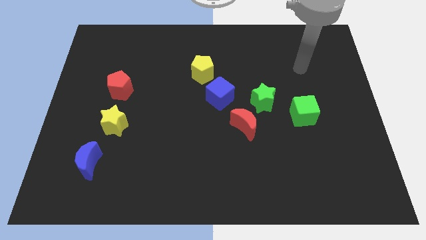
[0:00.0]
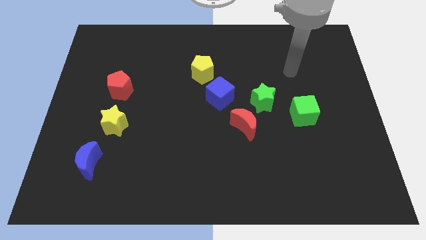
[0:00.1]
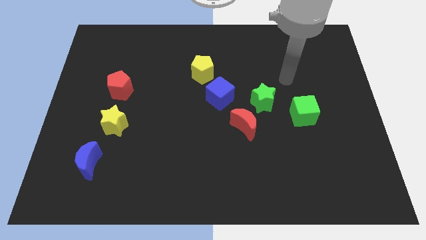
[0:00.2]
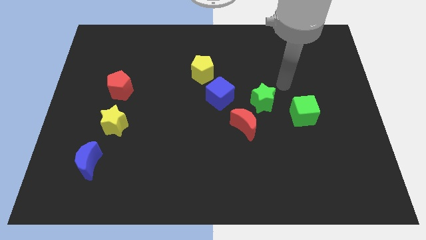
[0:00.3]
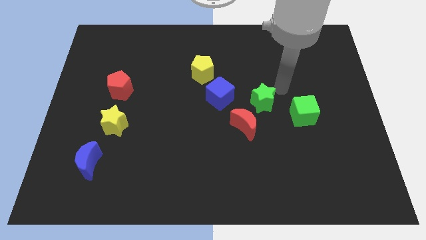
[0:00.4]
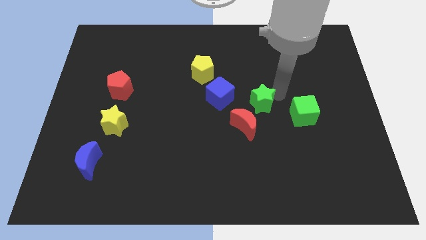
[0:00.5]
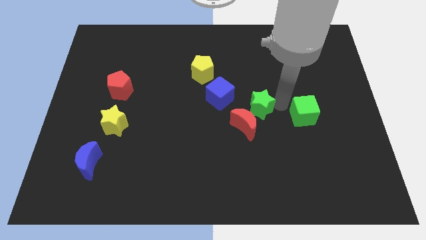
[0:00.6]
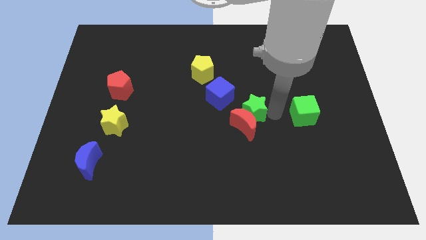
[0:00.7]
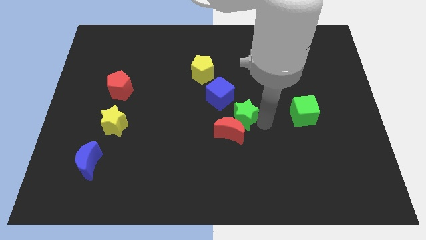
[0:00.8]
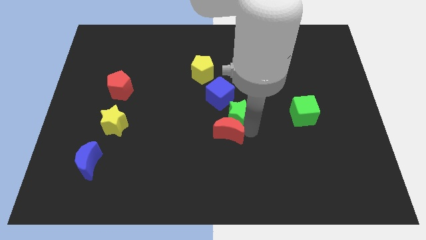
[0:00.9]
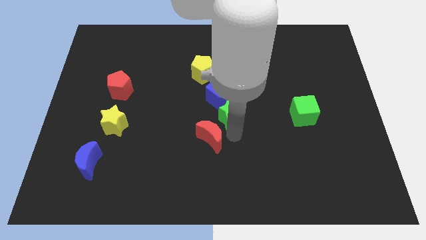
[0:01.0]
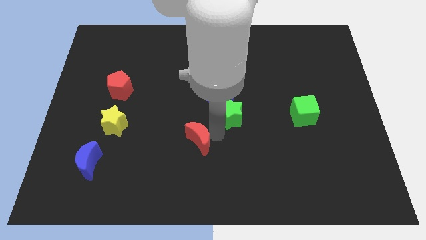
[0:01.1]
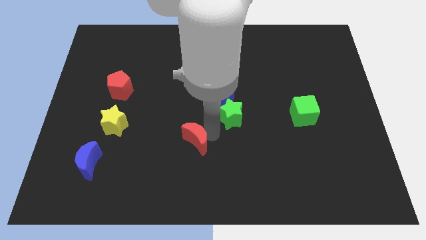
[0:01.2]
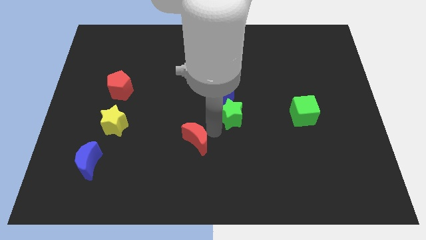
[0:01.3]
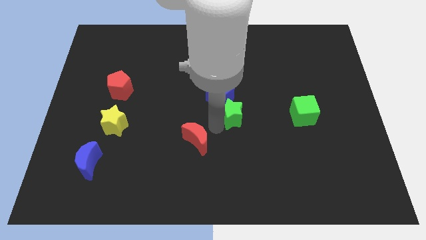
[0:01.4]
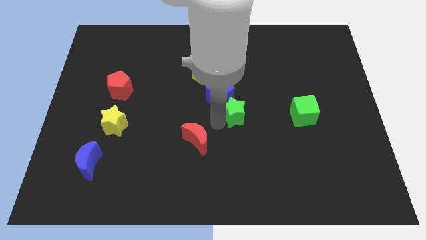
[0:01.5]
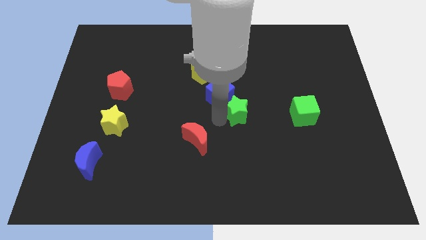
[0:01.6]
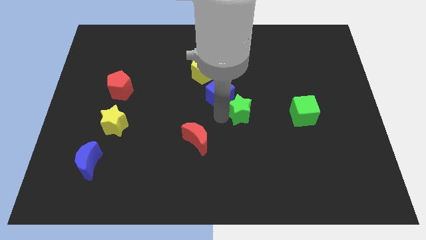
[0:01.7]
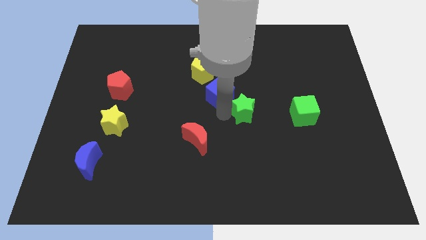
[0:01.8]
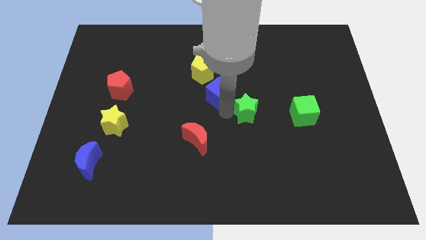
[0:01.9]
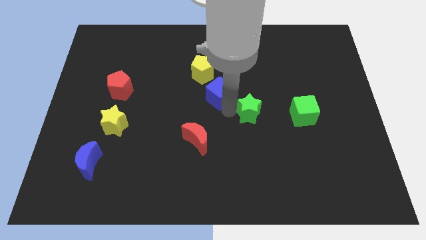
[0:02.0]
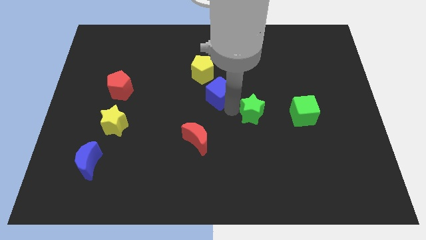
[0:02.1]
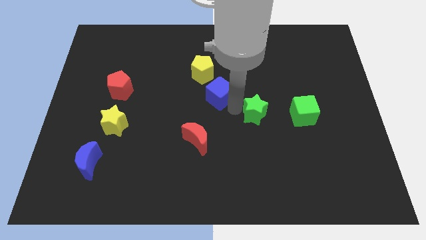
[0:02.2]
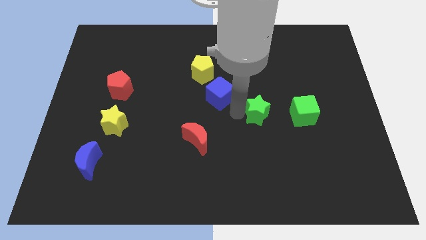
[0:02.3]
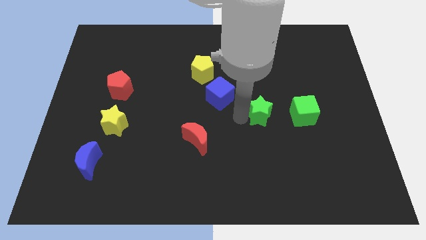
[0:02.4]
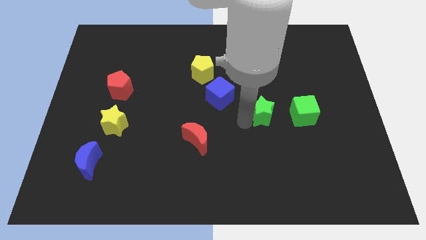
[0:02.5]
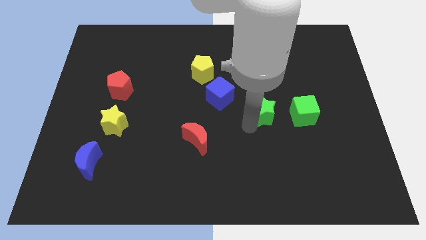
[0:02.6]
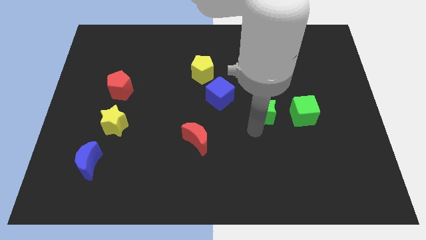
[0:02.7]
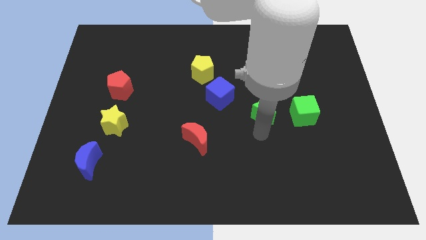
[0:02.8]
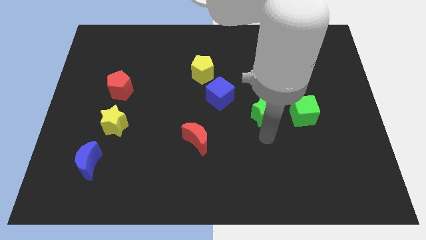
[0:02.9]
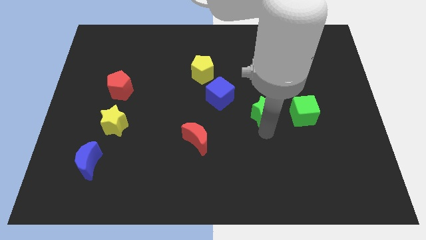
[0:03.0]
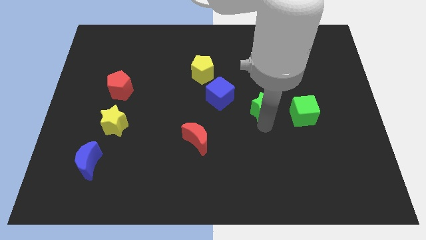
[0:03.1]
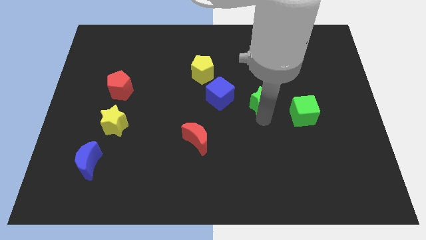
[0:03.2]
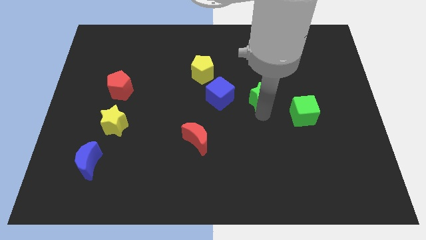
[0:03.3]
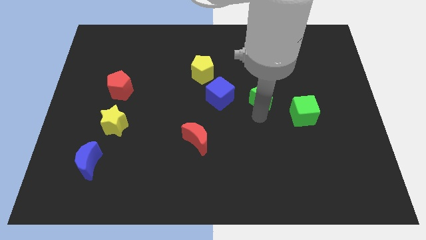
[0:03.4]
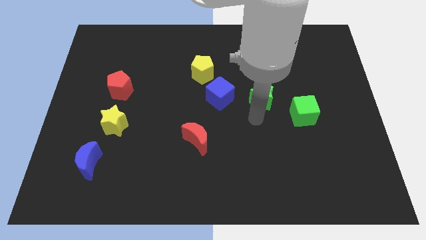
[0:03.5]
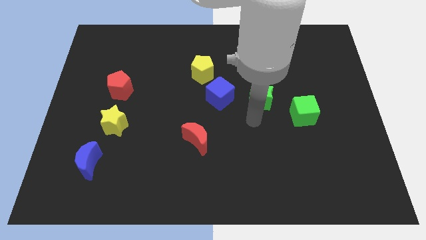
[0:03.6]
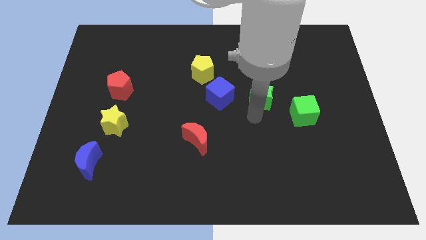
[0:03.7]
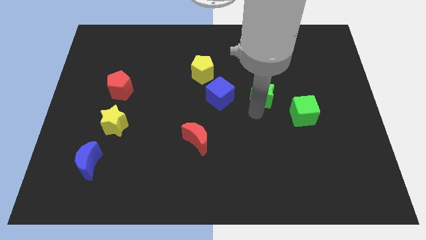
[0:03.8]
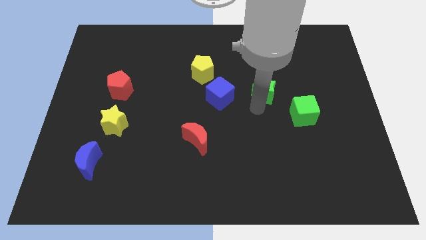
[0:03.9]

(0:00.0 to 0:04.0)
pull the green star apart from the red moon and green cube

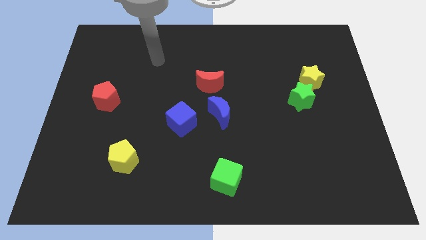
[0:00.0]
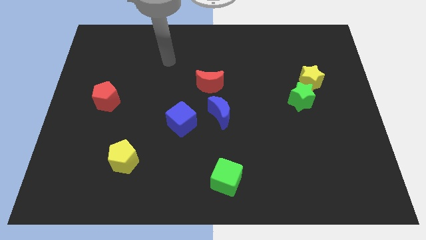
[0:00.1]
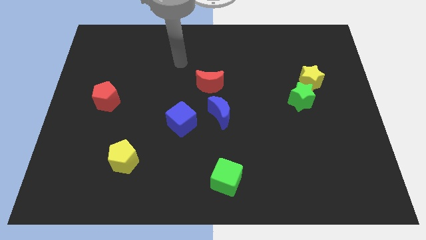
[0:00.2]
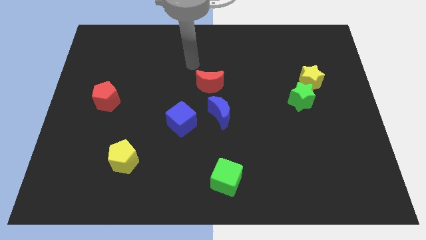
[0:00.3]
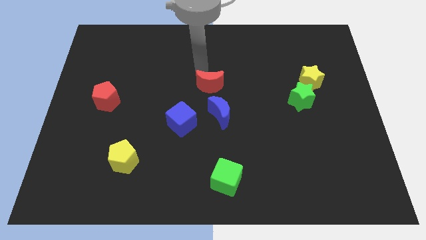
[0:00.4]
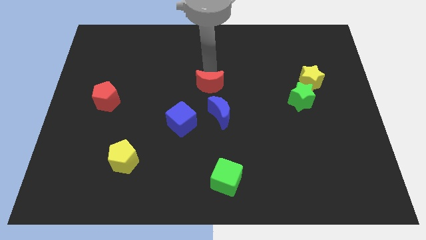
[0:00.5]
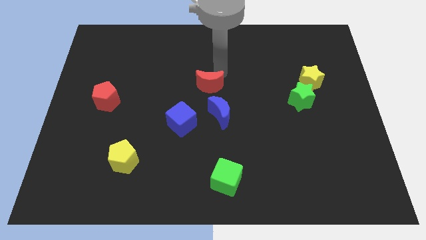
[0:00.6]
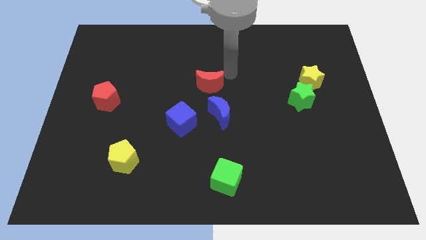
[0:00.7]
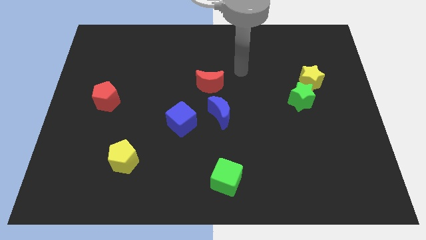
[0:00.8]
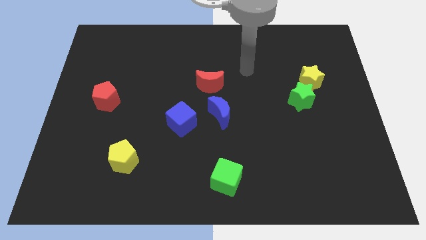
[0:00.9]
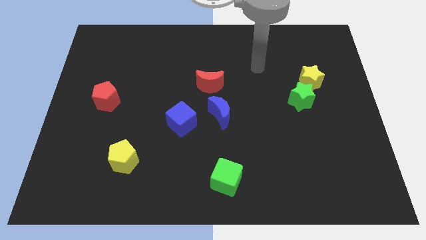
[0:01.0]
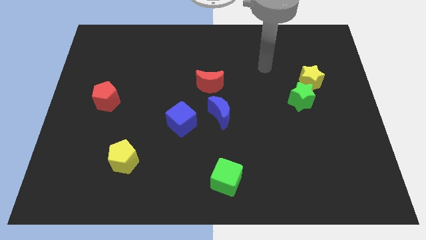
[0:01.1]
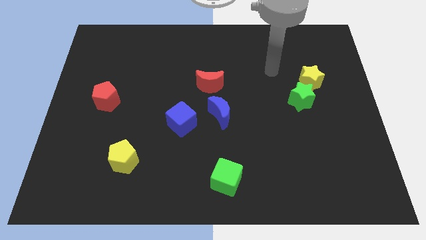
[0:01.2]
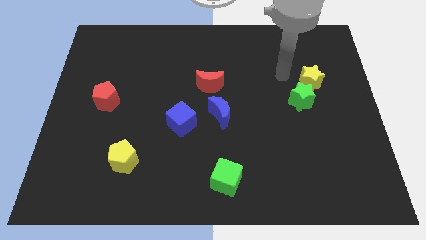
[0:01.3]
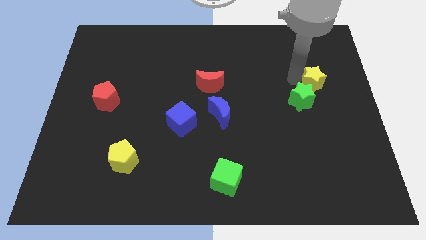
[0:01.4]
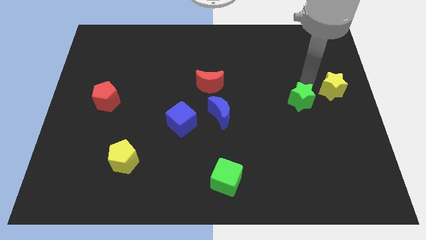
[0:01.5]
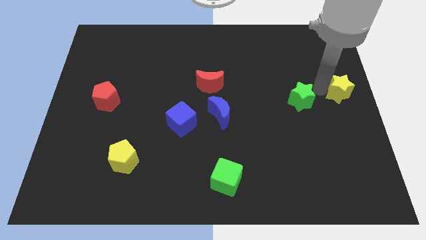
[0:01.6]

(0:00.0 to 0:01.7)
separate the green star from the yellow star

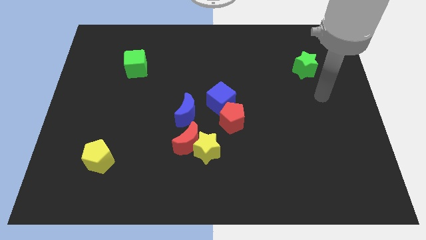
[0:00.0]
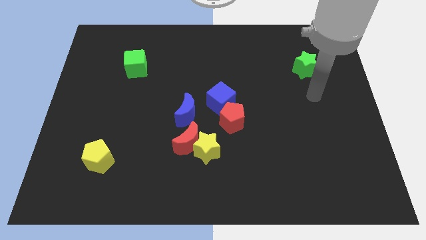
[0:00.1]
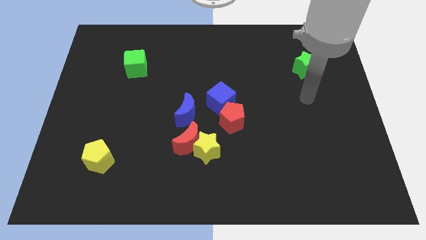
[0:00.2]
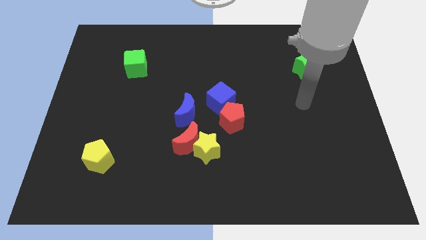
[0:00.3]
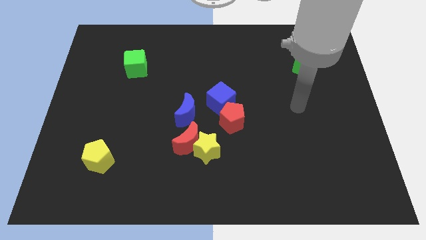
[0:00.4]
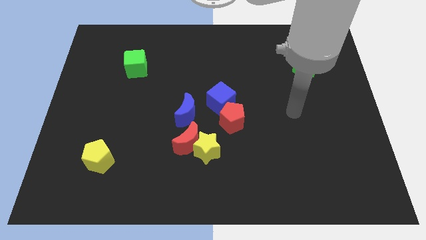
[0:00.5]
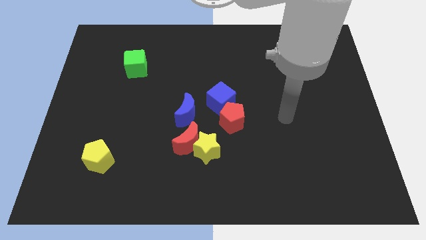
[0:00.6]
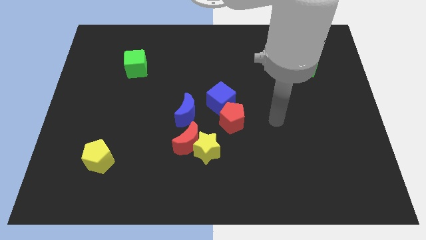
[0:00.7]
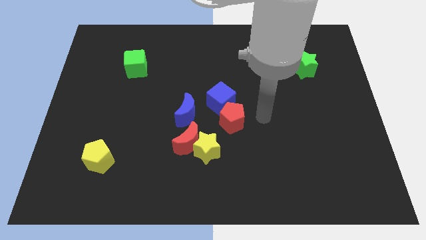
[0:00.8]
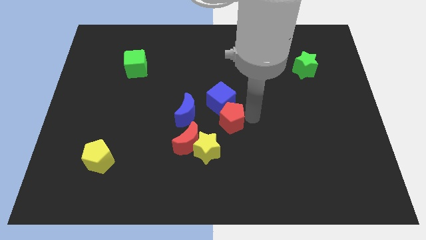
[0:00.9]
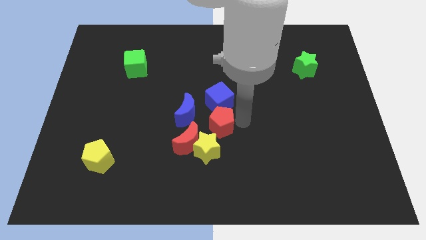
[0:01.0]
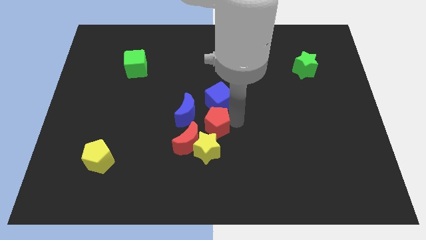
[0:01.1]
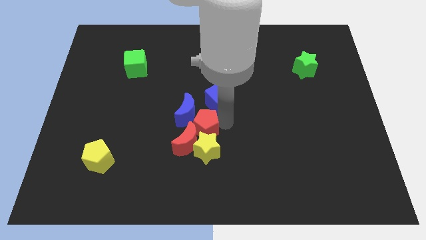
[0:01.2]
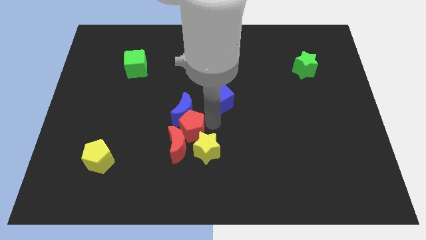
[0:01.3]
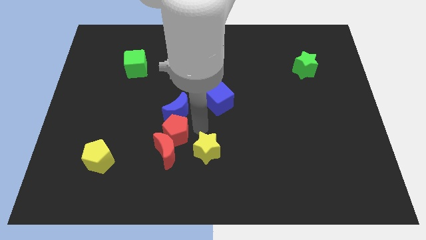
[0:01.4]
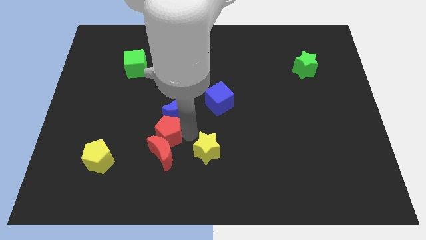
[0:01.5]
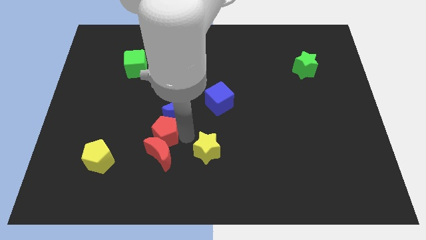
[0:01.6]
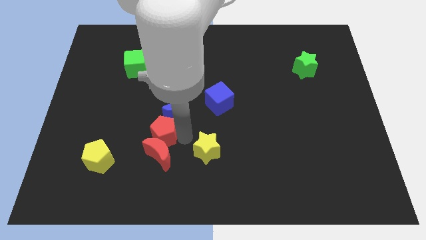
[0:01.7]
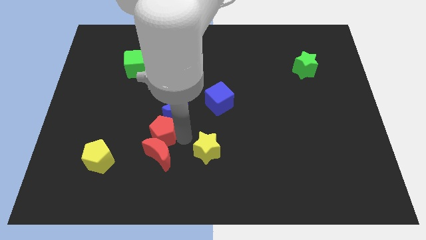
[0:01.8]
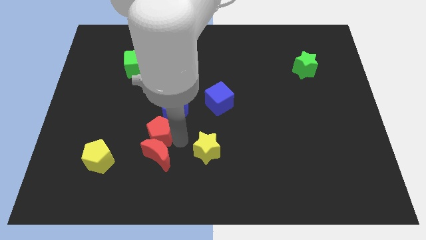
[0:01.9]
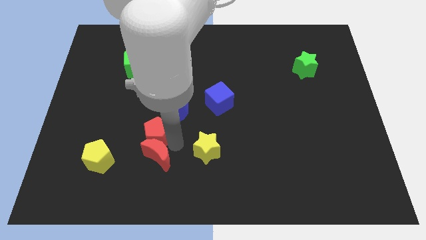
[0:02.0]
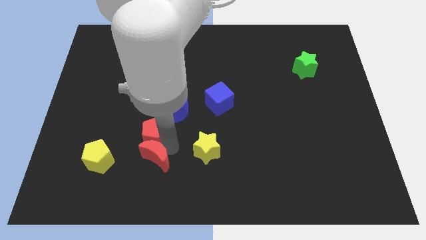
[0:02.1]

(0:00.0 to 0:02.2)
separate the red moon from the yellow star and blue moon

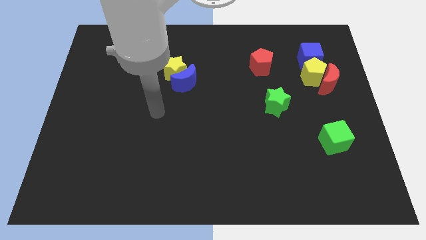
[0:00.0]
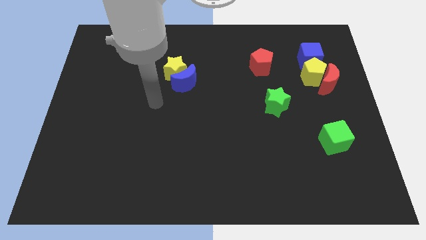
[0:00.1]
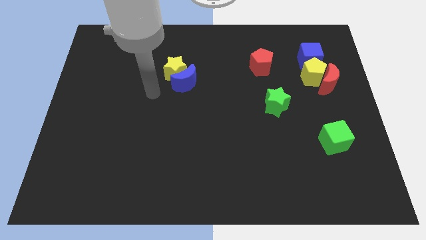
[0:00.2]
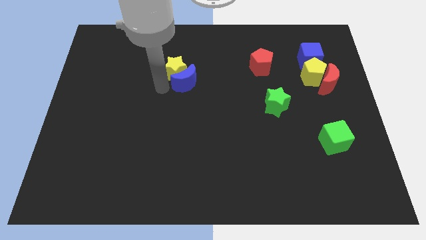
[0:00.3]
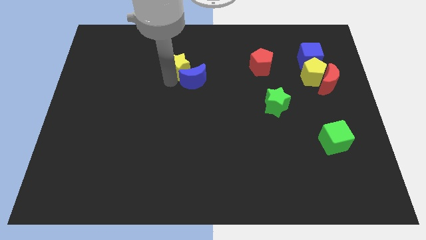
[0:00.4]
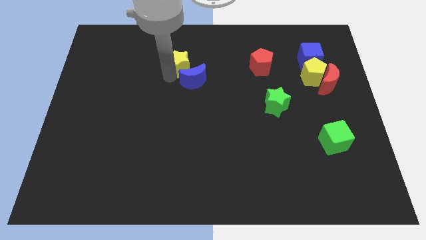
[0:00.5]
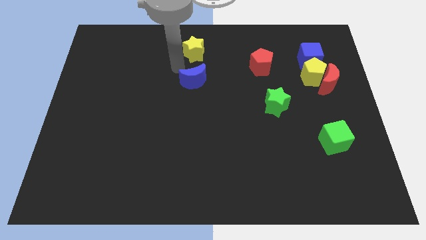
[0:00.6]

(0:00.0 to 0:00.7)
pull the blue moon apart from the yellow star

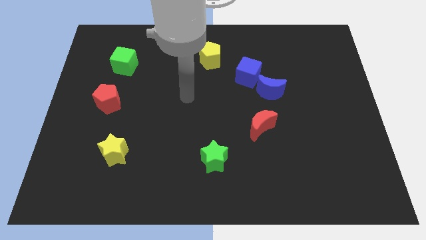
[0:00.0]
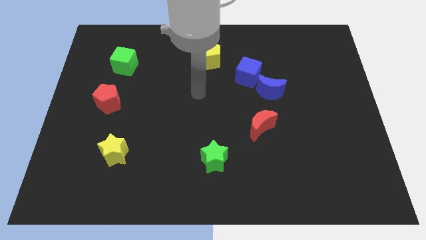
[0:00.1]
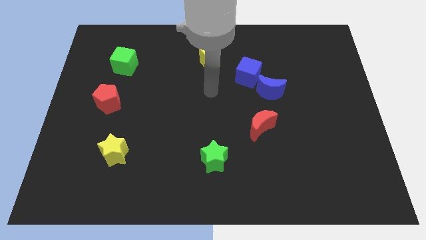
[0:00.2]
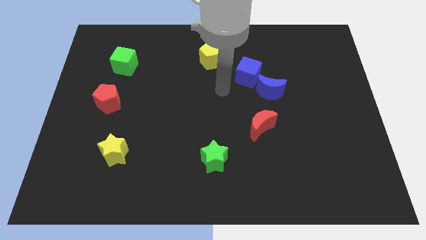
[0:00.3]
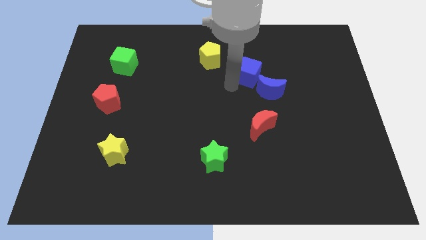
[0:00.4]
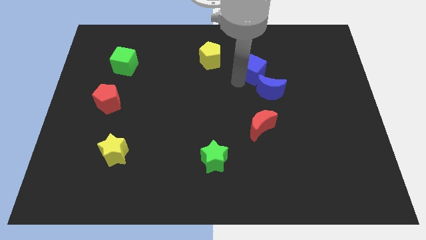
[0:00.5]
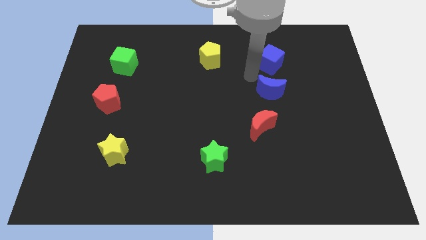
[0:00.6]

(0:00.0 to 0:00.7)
pull the blue moon apart from the blue cube

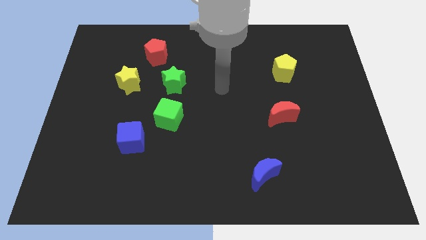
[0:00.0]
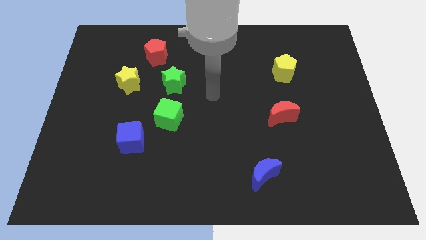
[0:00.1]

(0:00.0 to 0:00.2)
separate the blue cube from the green cube
